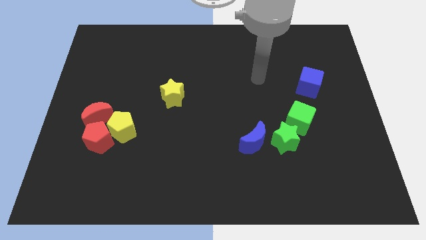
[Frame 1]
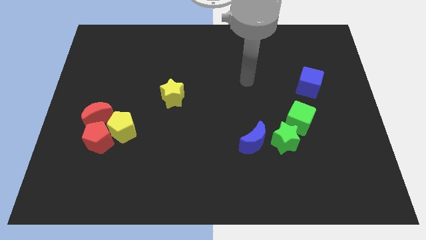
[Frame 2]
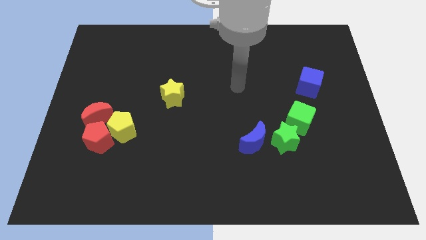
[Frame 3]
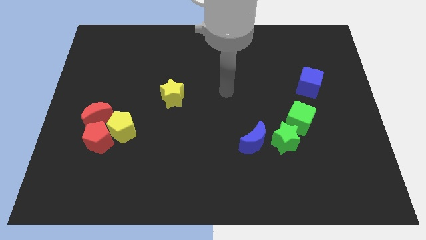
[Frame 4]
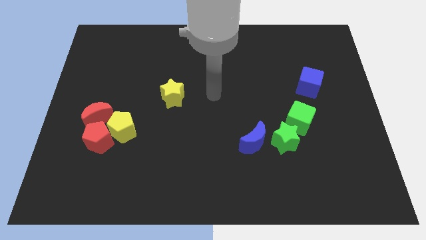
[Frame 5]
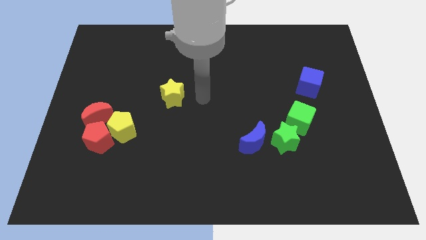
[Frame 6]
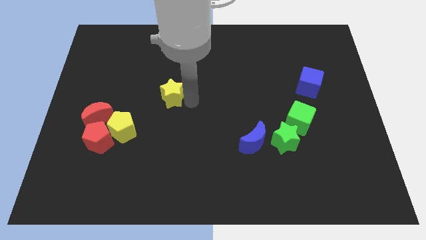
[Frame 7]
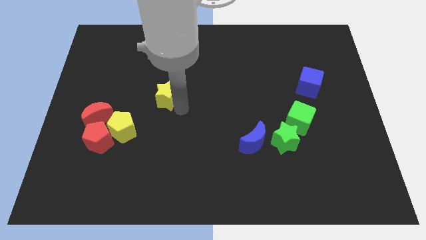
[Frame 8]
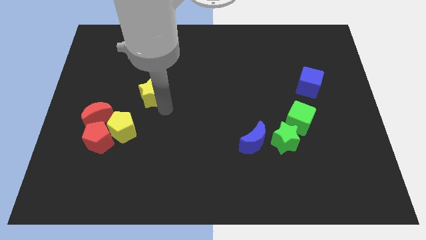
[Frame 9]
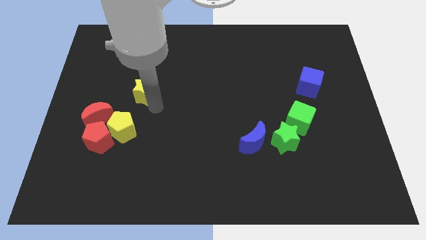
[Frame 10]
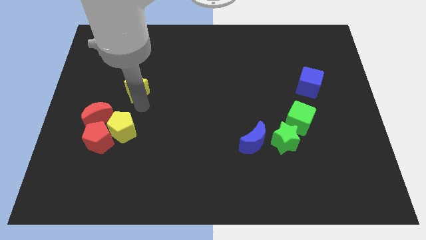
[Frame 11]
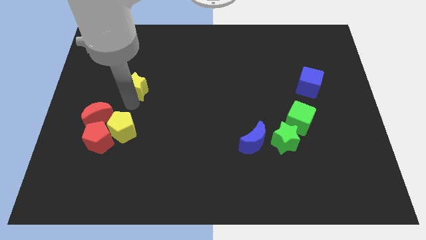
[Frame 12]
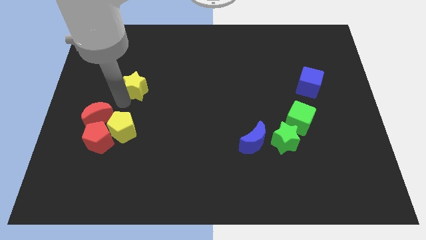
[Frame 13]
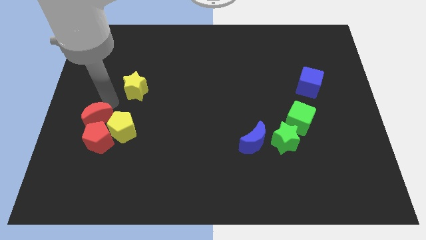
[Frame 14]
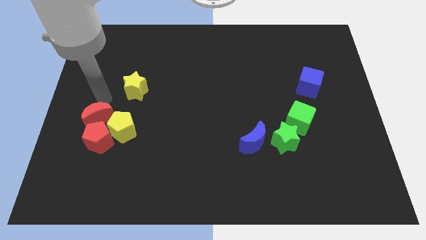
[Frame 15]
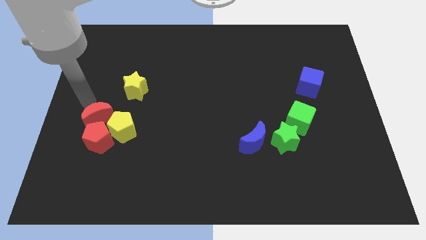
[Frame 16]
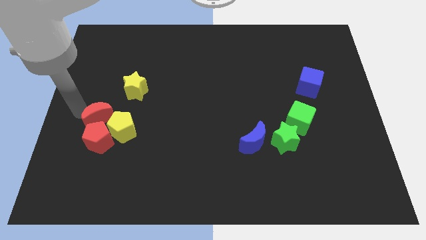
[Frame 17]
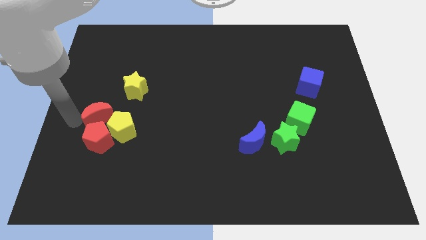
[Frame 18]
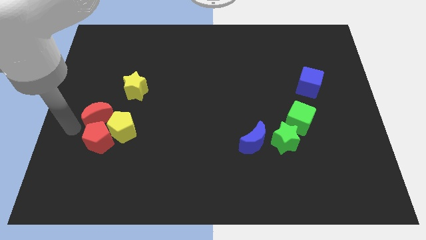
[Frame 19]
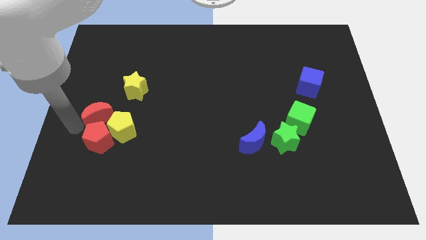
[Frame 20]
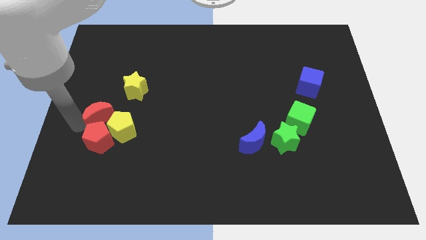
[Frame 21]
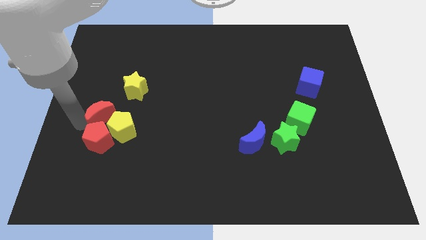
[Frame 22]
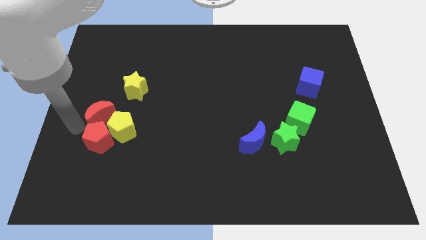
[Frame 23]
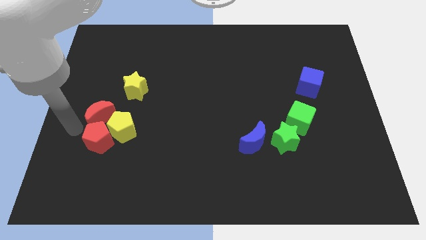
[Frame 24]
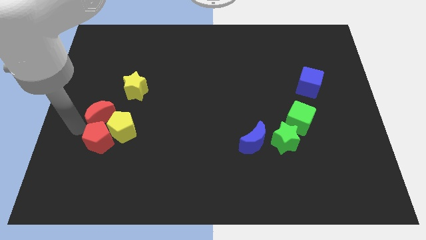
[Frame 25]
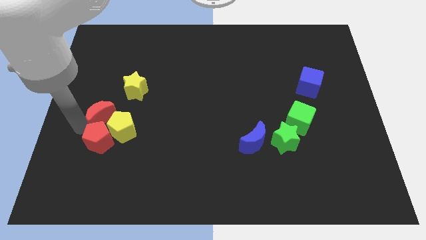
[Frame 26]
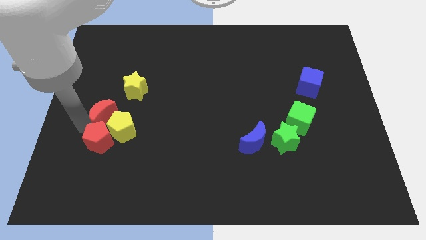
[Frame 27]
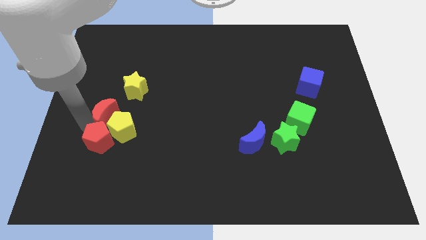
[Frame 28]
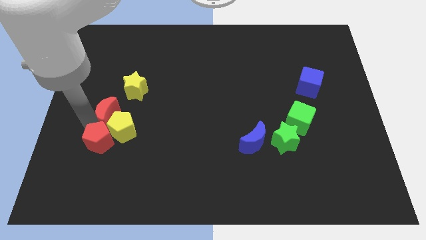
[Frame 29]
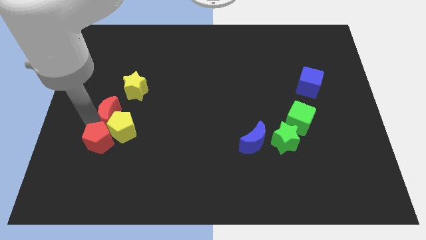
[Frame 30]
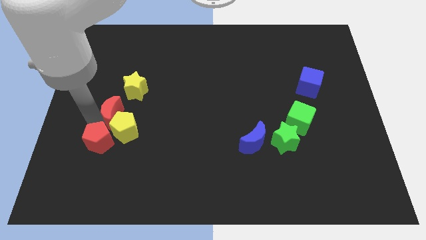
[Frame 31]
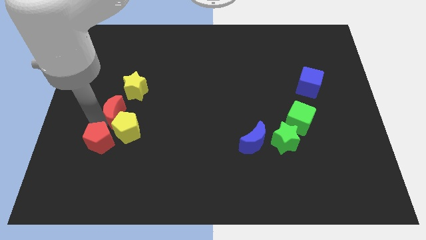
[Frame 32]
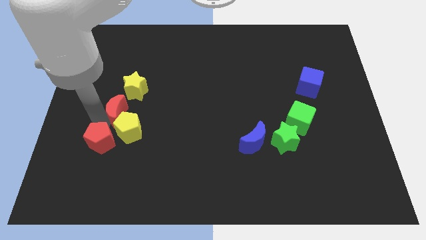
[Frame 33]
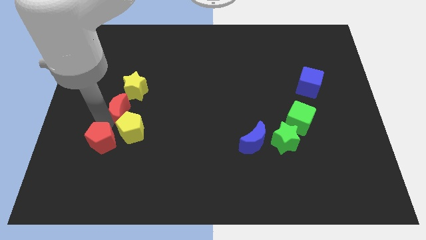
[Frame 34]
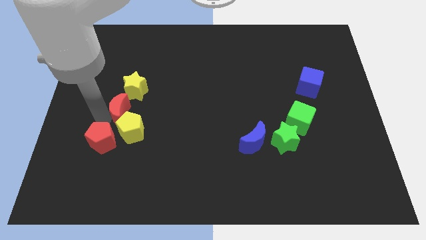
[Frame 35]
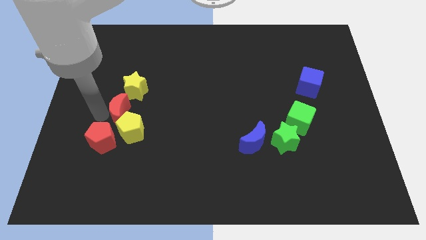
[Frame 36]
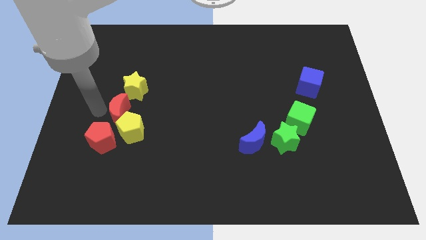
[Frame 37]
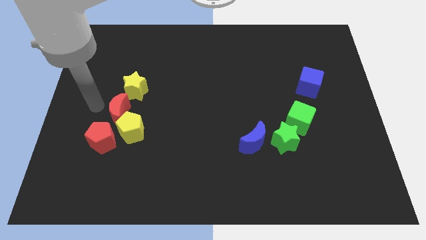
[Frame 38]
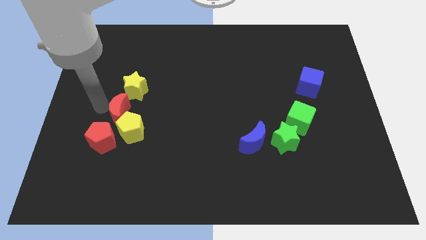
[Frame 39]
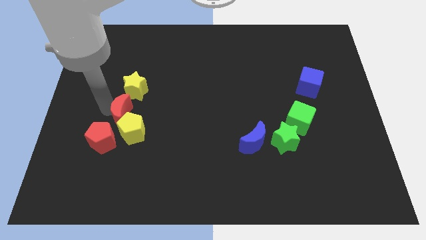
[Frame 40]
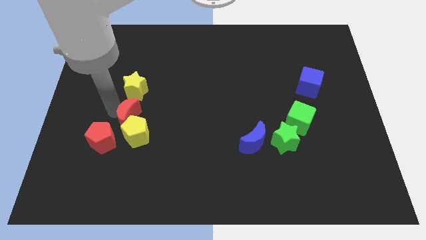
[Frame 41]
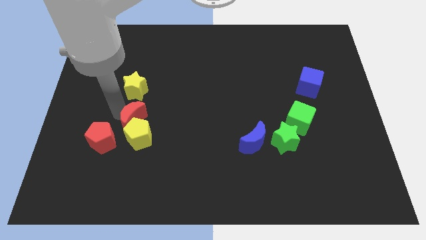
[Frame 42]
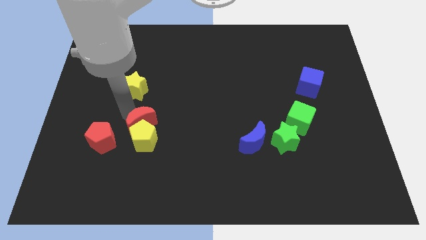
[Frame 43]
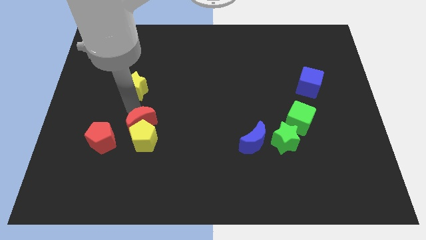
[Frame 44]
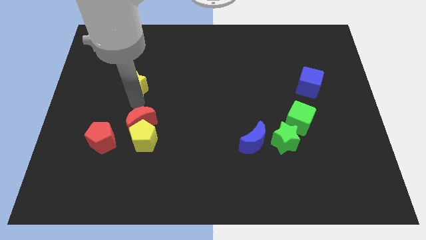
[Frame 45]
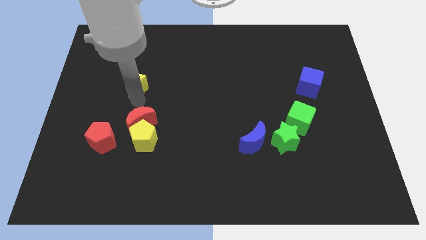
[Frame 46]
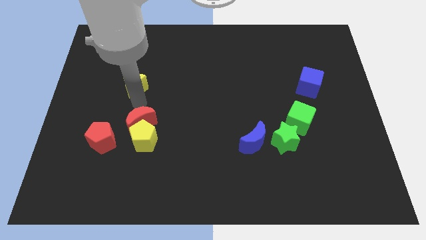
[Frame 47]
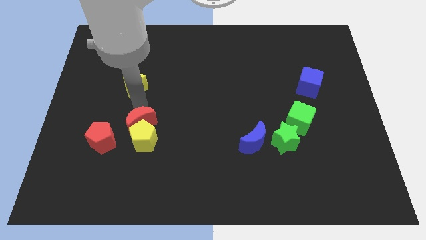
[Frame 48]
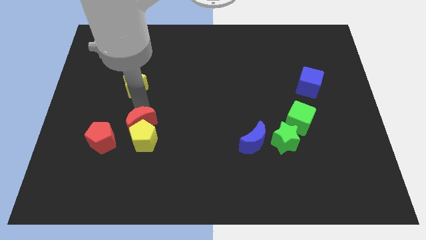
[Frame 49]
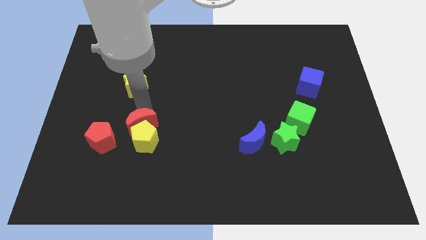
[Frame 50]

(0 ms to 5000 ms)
push the red moon a little bit downwards and right diagonally

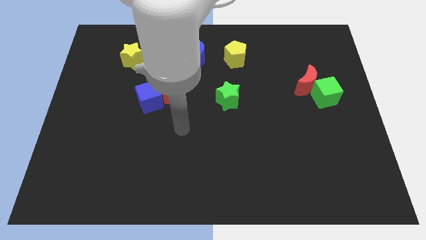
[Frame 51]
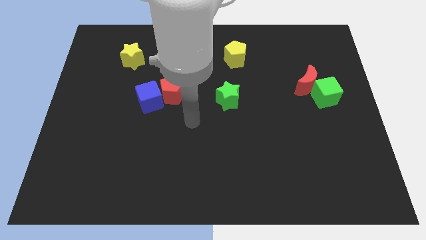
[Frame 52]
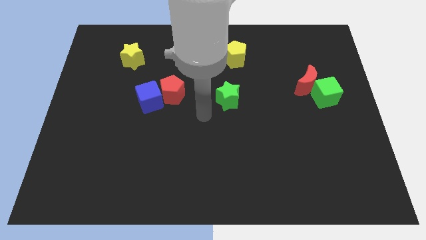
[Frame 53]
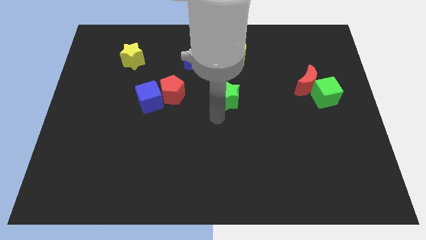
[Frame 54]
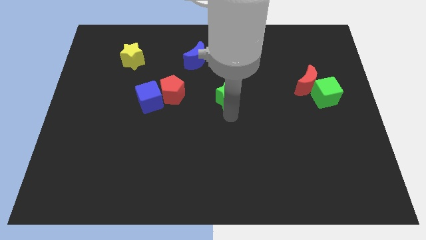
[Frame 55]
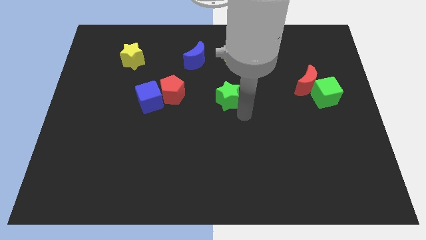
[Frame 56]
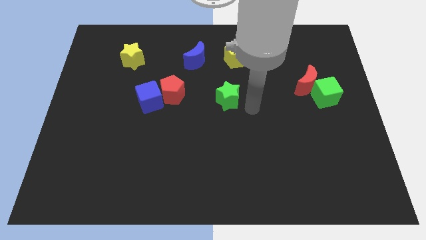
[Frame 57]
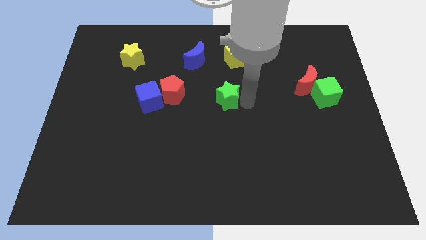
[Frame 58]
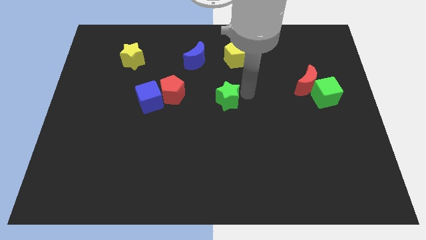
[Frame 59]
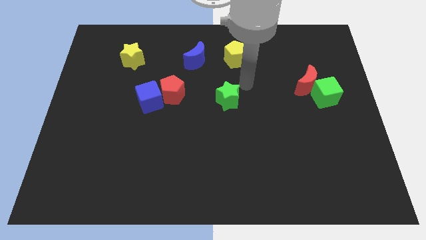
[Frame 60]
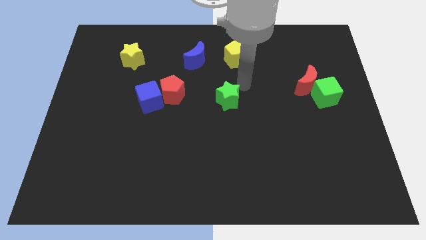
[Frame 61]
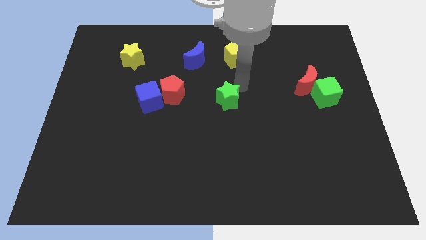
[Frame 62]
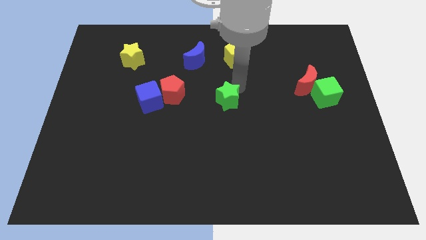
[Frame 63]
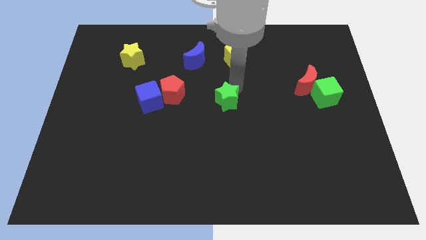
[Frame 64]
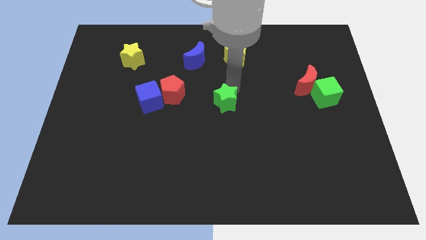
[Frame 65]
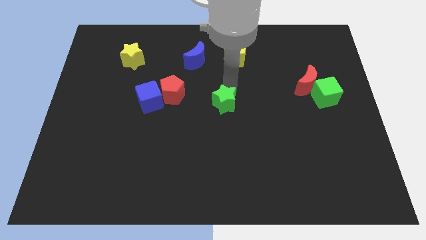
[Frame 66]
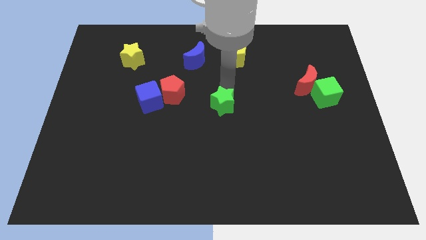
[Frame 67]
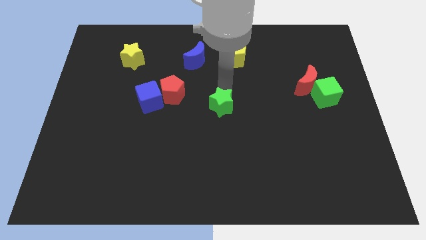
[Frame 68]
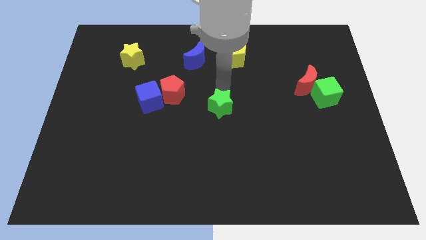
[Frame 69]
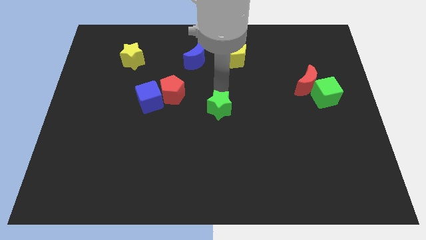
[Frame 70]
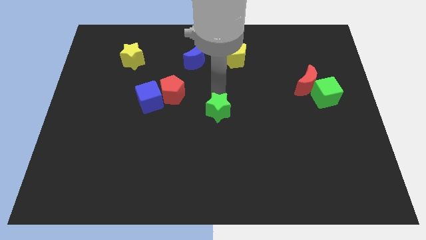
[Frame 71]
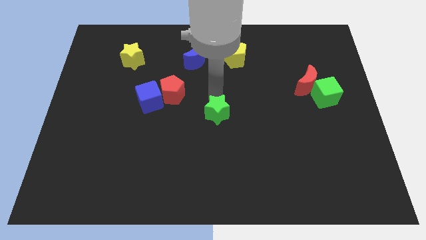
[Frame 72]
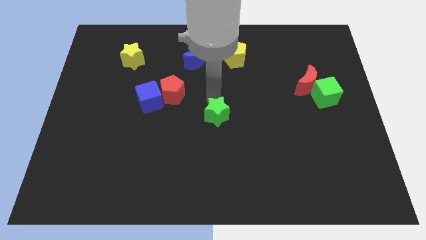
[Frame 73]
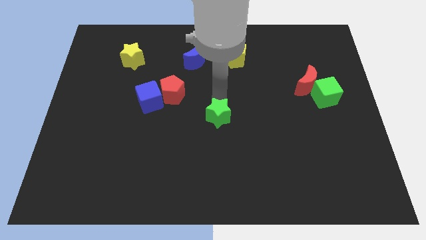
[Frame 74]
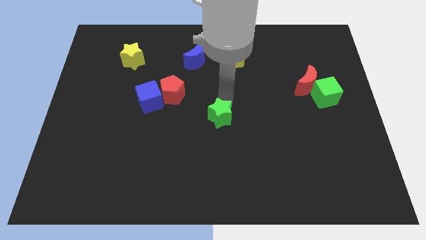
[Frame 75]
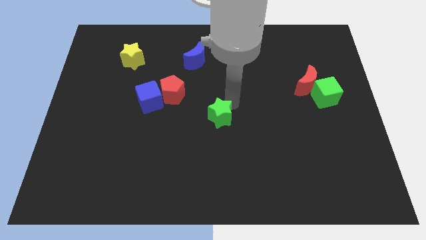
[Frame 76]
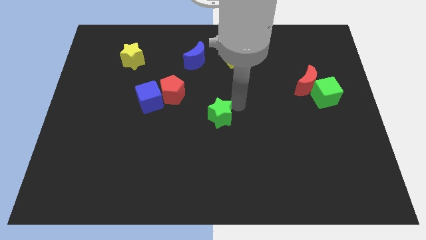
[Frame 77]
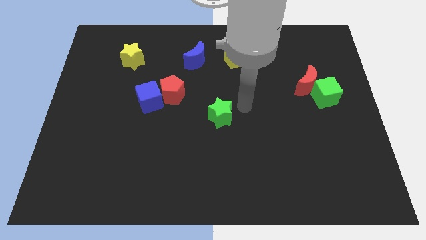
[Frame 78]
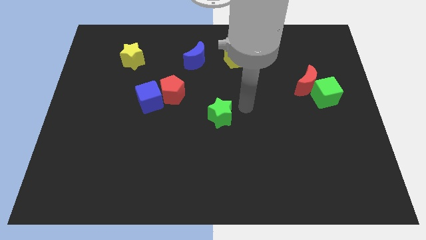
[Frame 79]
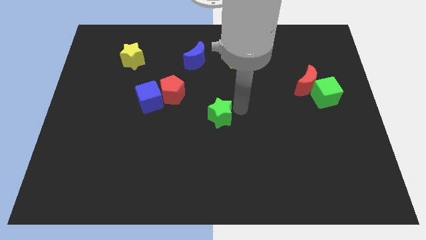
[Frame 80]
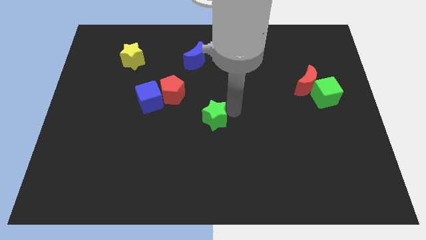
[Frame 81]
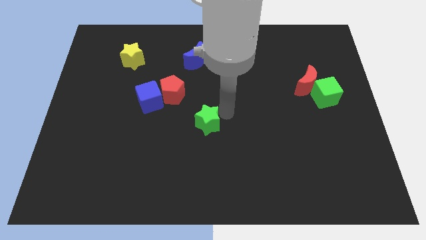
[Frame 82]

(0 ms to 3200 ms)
slightly push the green star down and left

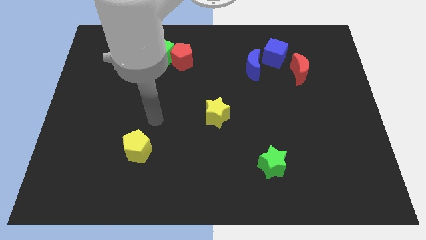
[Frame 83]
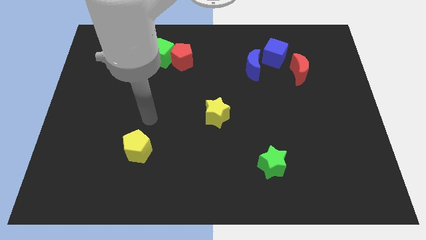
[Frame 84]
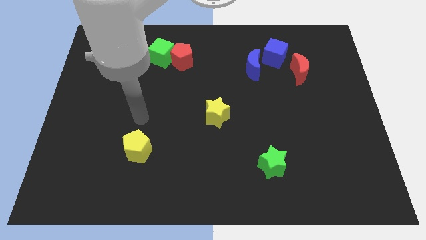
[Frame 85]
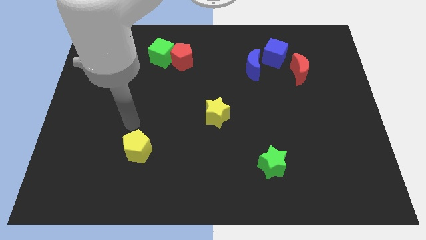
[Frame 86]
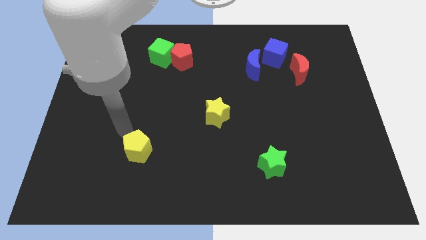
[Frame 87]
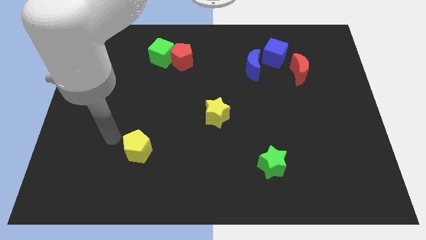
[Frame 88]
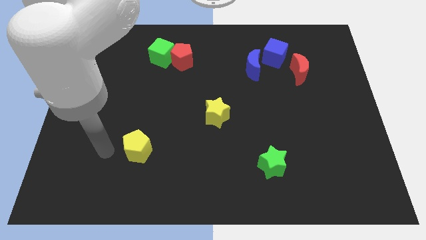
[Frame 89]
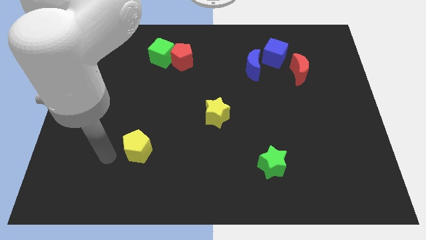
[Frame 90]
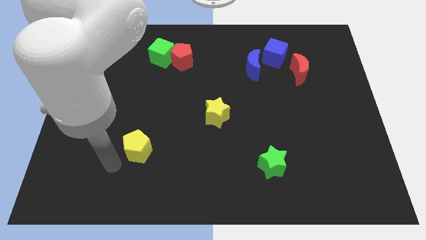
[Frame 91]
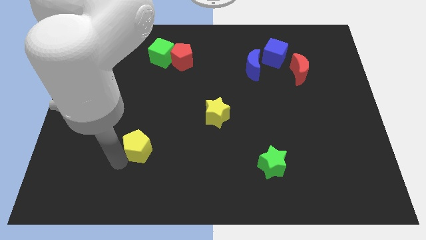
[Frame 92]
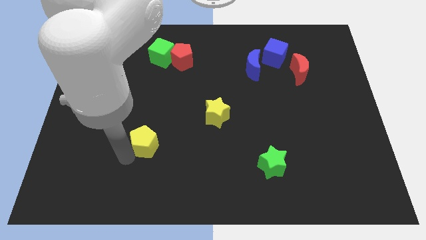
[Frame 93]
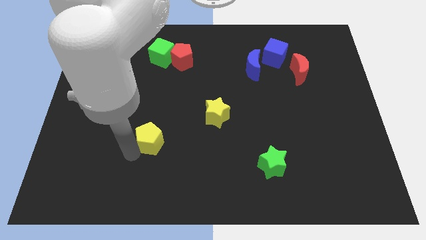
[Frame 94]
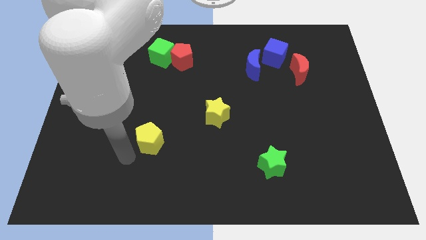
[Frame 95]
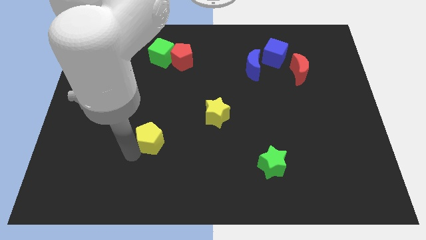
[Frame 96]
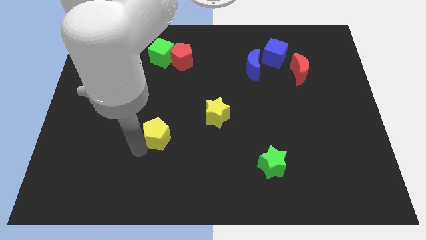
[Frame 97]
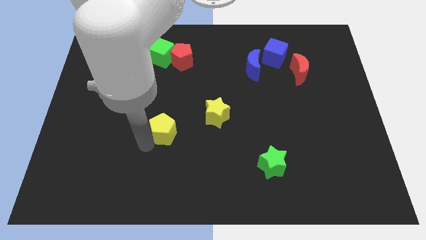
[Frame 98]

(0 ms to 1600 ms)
push the yellow pentagon up and to the right a little bit
